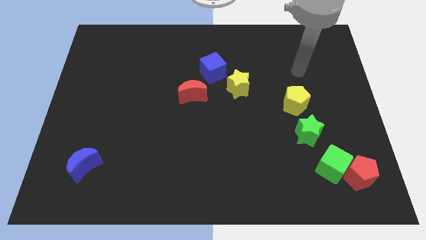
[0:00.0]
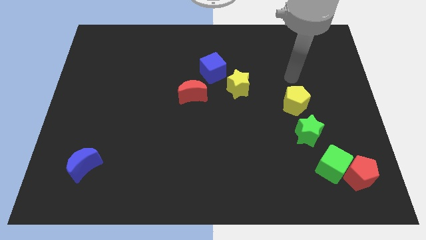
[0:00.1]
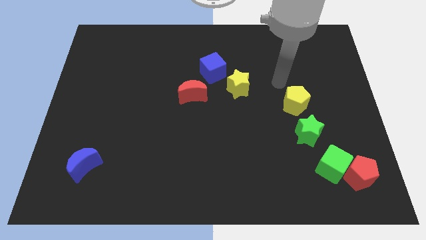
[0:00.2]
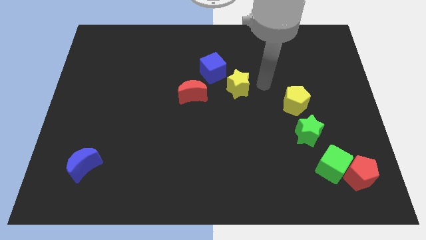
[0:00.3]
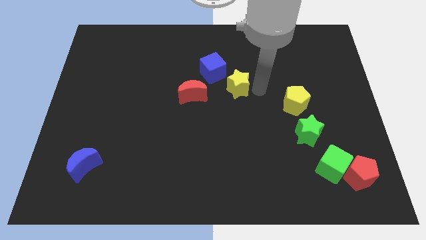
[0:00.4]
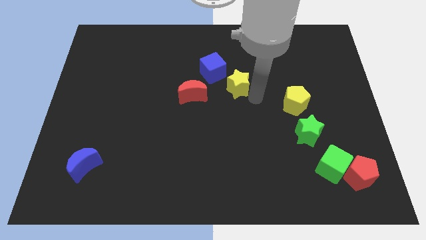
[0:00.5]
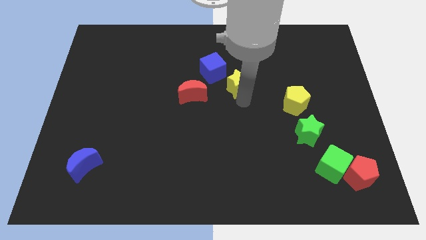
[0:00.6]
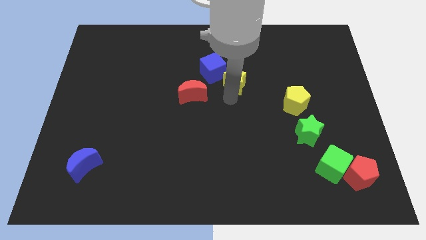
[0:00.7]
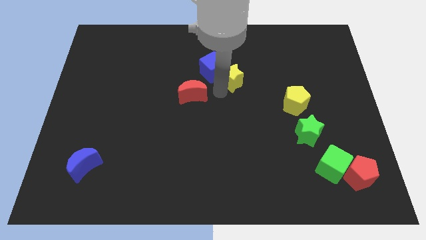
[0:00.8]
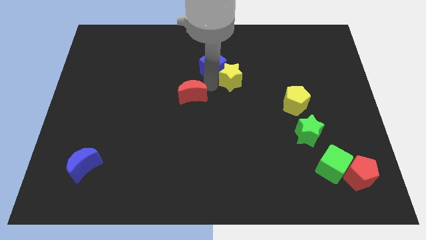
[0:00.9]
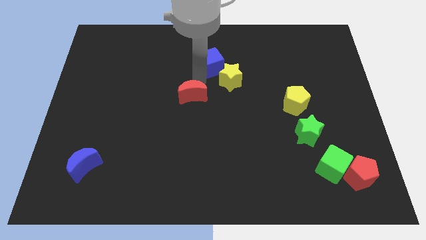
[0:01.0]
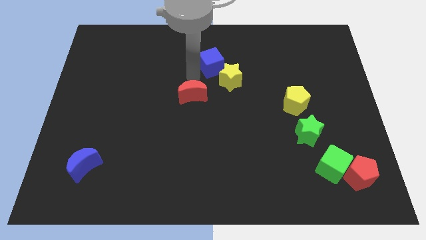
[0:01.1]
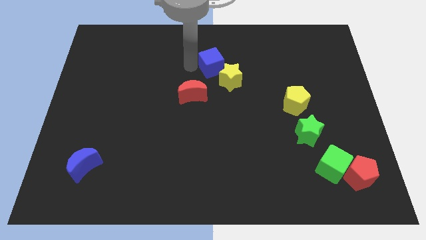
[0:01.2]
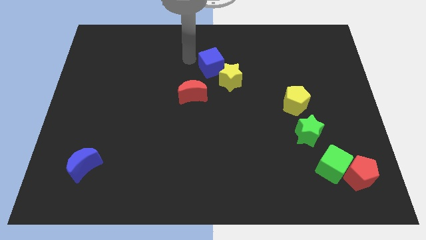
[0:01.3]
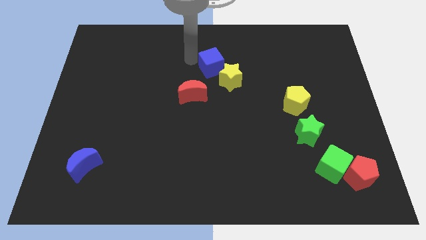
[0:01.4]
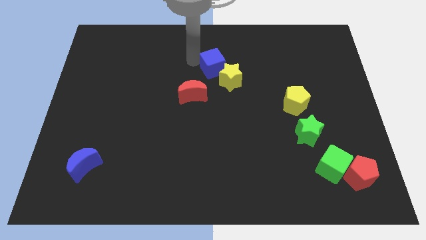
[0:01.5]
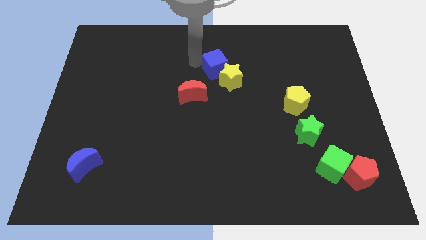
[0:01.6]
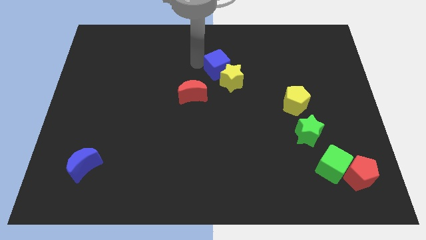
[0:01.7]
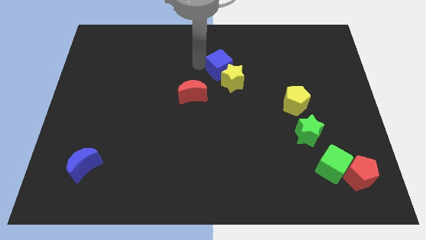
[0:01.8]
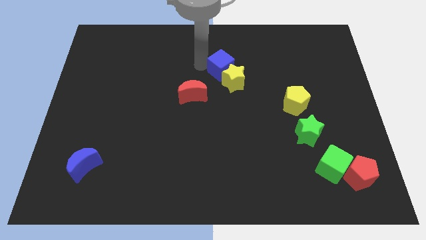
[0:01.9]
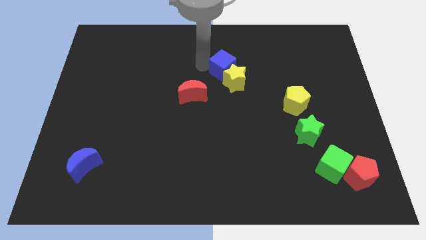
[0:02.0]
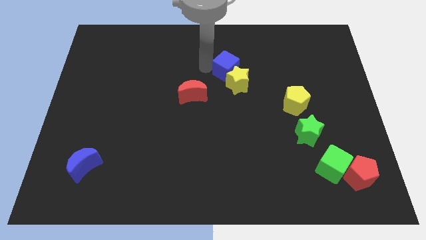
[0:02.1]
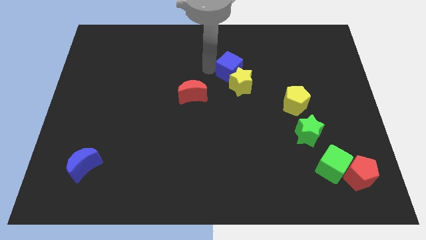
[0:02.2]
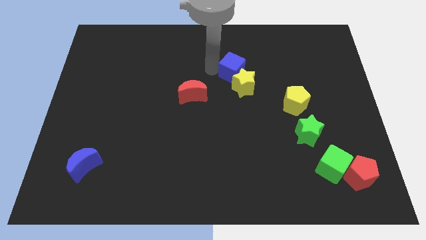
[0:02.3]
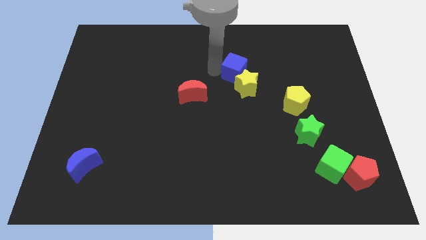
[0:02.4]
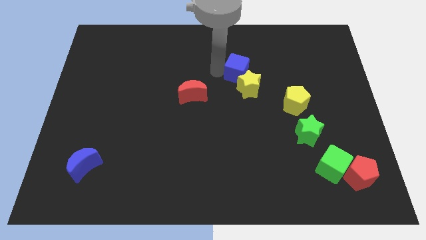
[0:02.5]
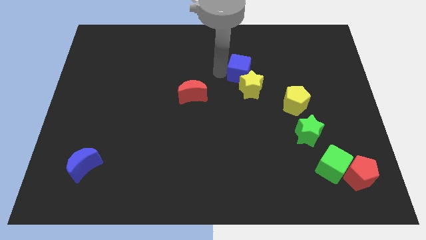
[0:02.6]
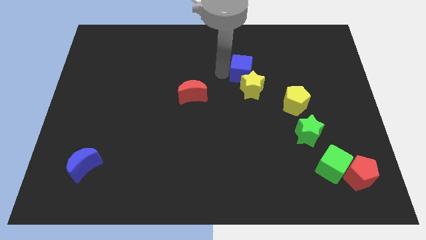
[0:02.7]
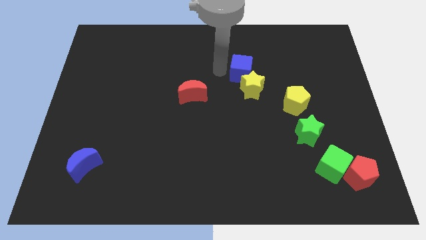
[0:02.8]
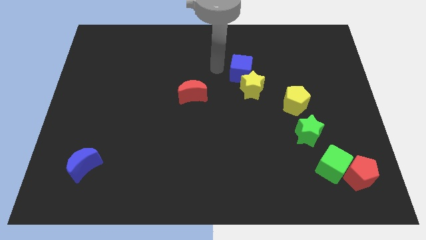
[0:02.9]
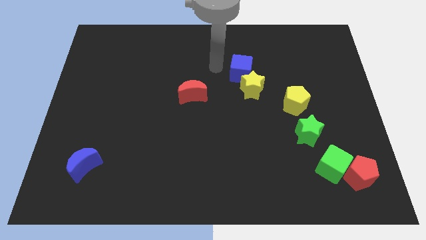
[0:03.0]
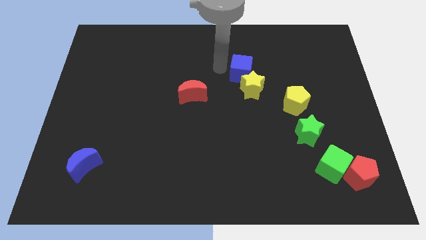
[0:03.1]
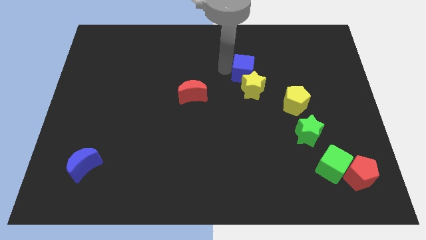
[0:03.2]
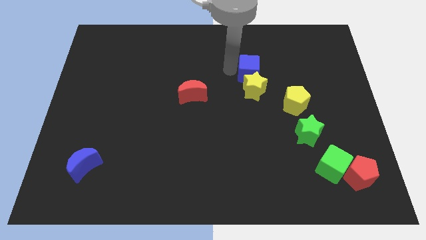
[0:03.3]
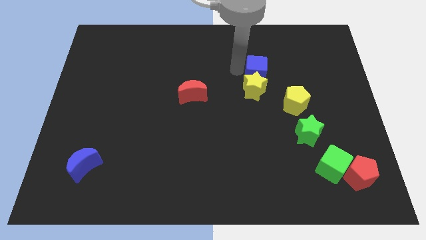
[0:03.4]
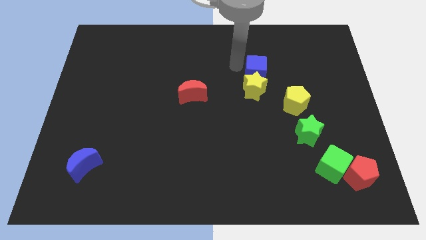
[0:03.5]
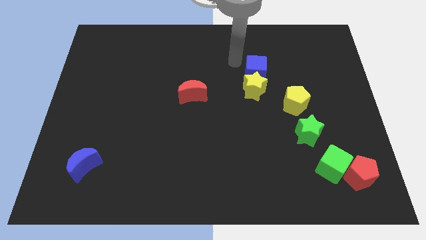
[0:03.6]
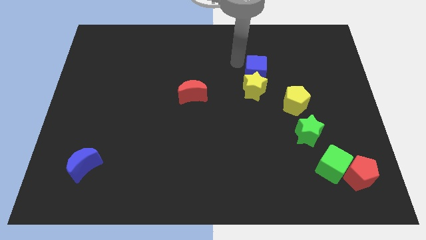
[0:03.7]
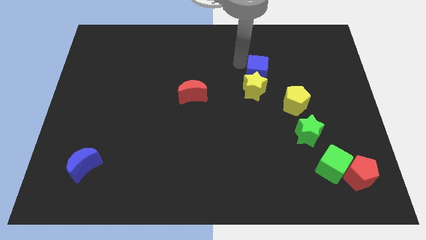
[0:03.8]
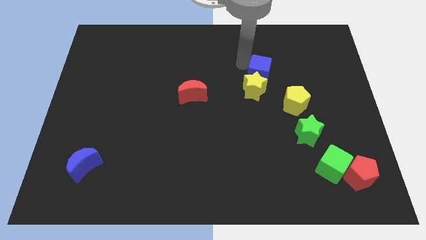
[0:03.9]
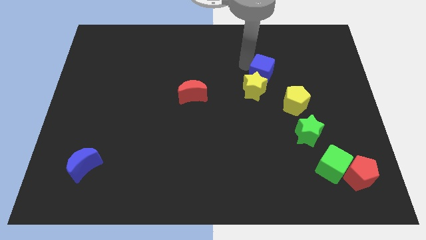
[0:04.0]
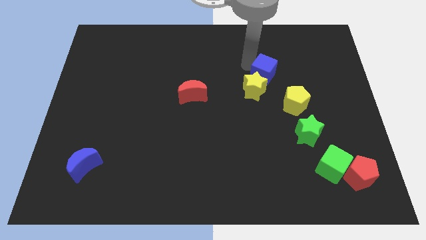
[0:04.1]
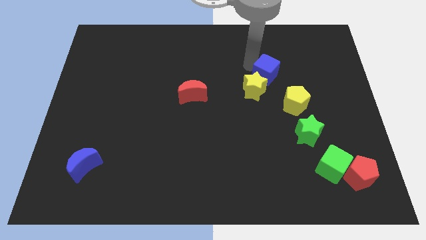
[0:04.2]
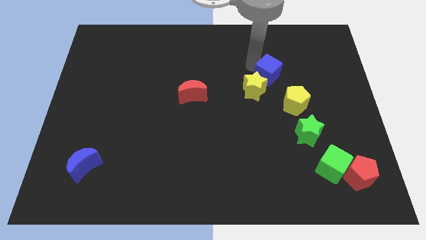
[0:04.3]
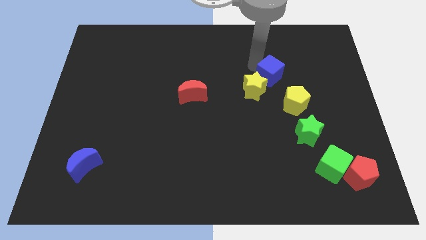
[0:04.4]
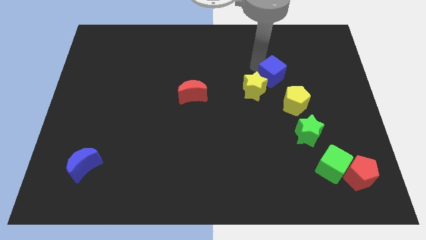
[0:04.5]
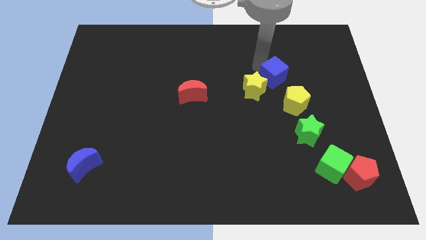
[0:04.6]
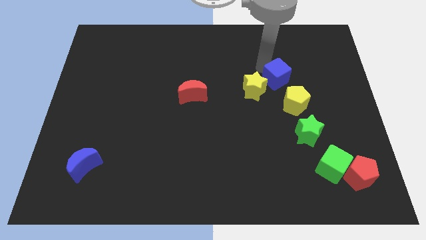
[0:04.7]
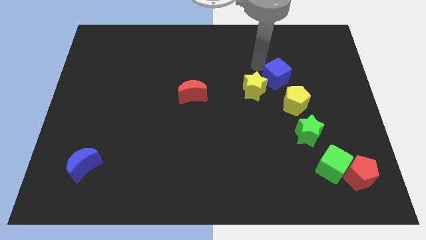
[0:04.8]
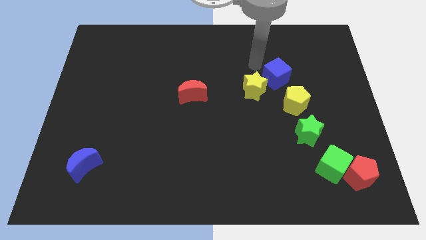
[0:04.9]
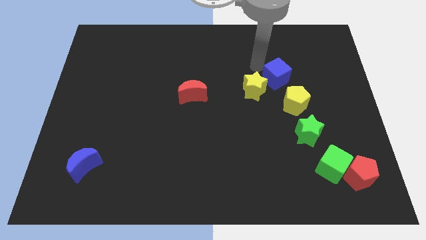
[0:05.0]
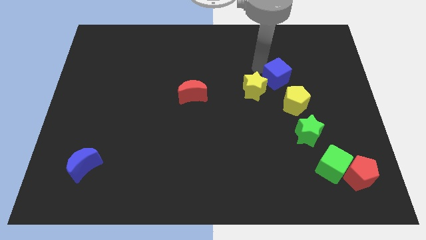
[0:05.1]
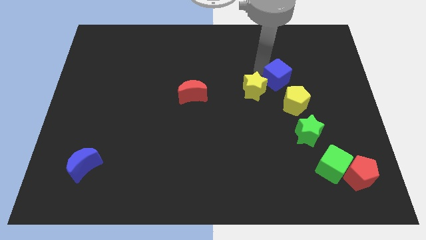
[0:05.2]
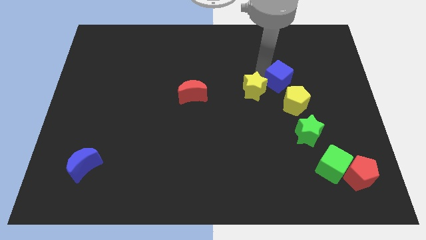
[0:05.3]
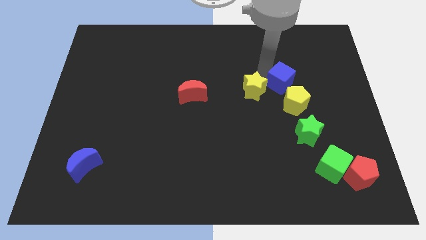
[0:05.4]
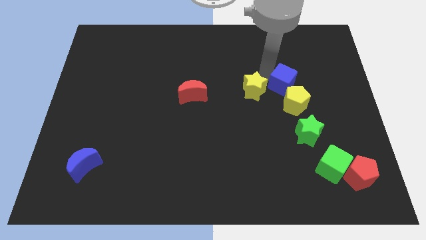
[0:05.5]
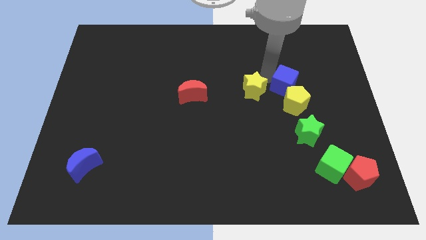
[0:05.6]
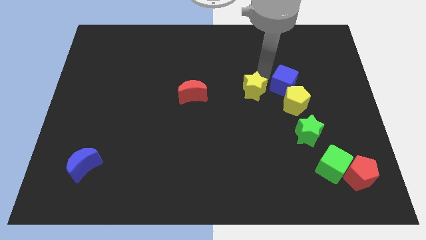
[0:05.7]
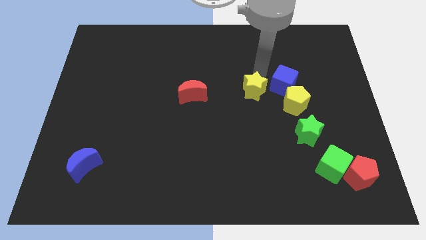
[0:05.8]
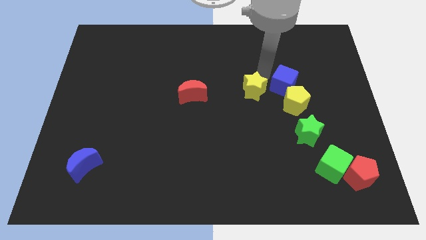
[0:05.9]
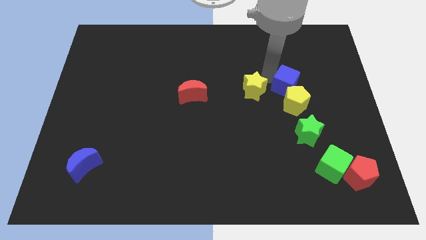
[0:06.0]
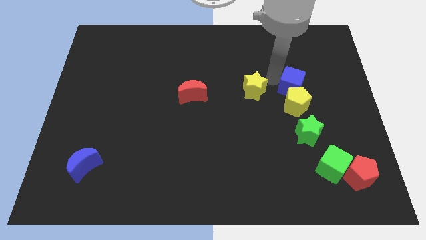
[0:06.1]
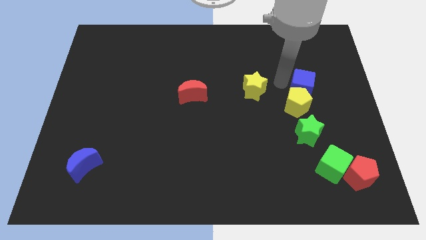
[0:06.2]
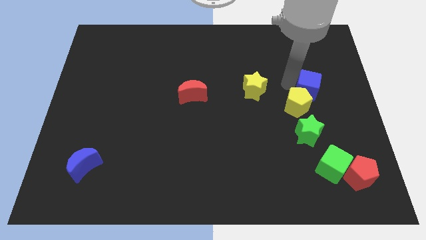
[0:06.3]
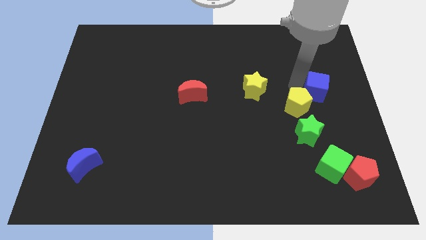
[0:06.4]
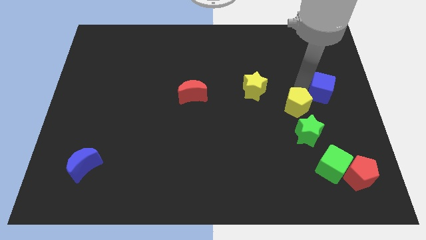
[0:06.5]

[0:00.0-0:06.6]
slide the blue cube to the right side
